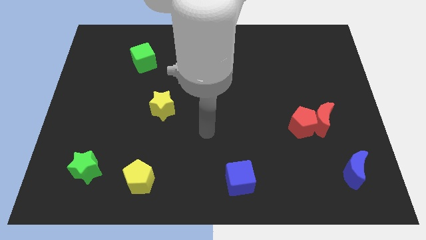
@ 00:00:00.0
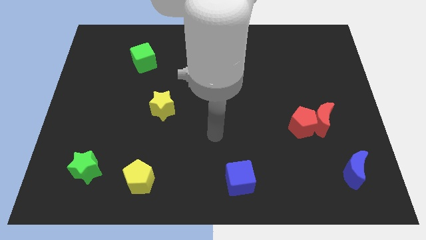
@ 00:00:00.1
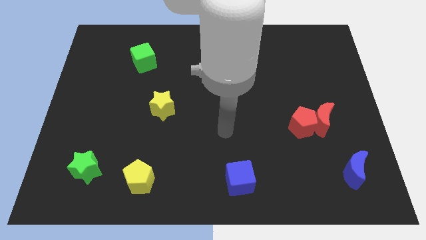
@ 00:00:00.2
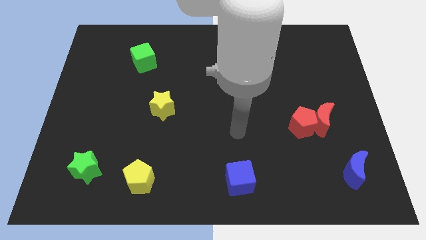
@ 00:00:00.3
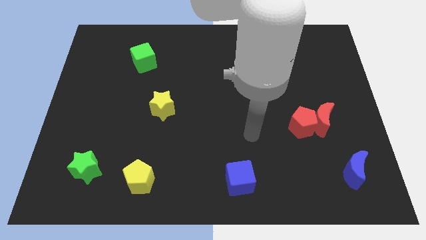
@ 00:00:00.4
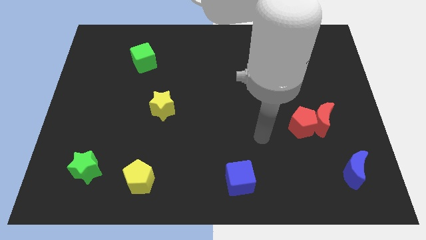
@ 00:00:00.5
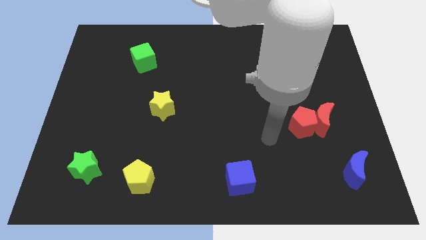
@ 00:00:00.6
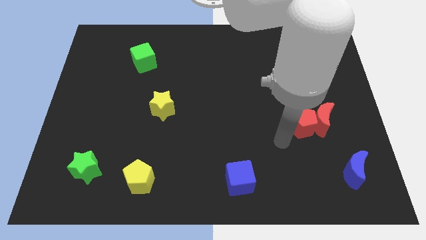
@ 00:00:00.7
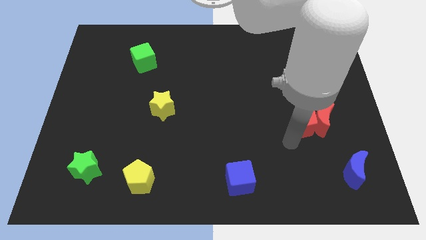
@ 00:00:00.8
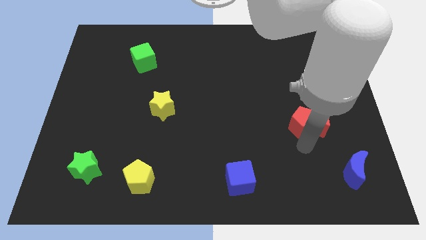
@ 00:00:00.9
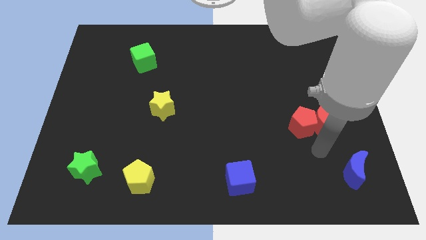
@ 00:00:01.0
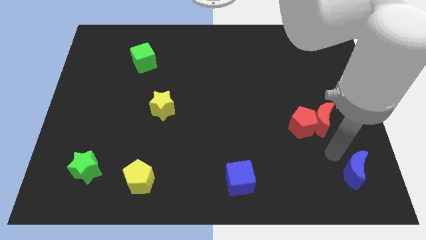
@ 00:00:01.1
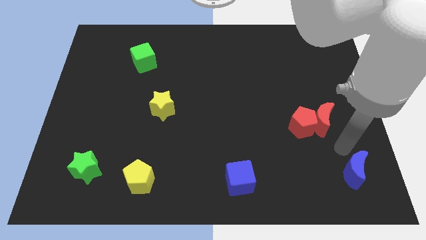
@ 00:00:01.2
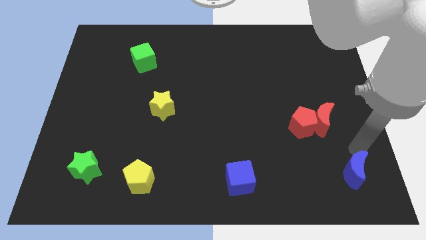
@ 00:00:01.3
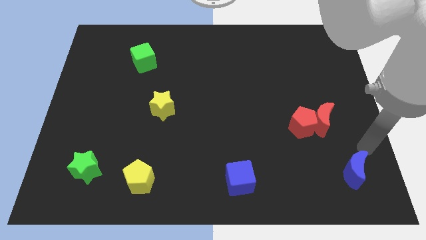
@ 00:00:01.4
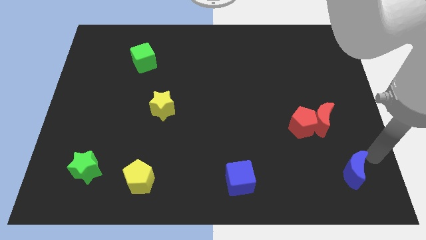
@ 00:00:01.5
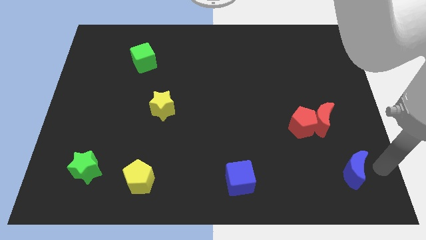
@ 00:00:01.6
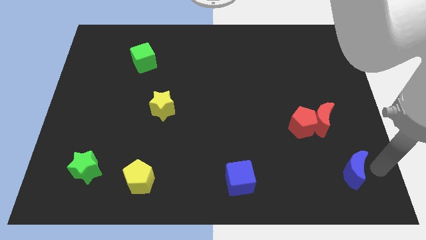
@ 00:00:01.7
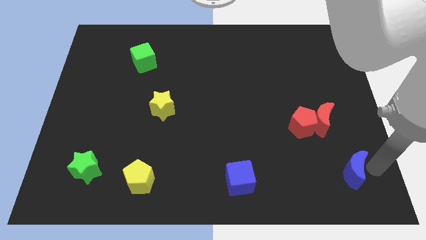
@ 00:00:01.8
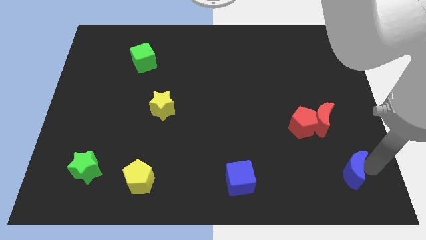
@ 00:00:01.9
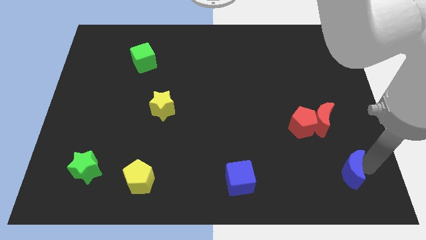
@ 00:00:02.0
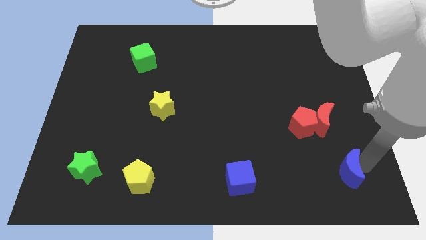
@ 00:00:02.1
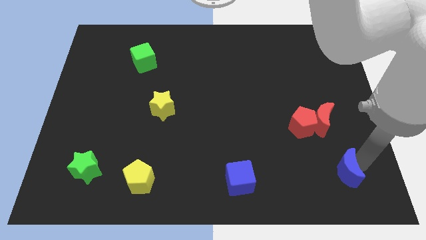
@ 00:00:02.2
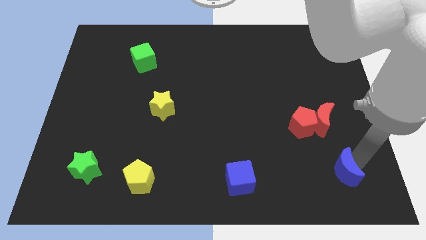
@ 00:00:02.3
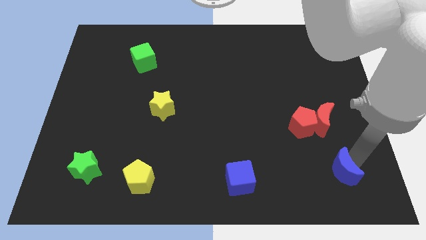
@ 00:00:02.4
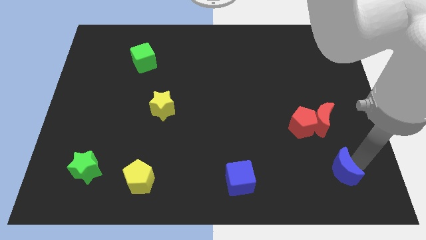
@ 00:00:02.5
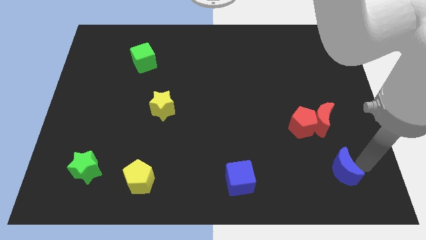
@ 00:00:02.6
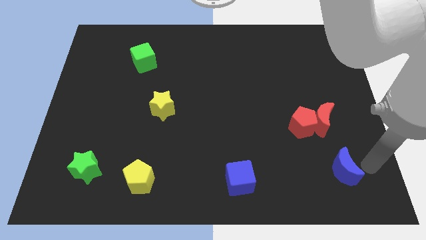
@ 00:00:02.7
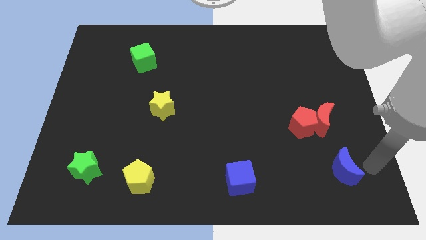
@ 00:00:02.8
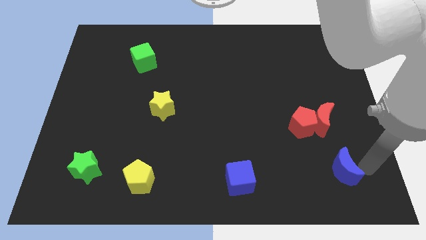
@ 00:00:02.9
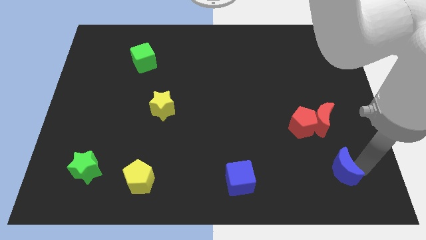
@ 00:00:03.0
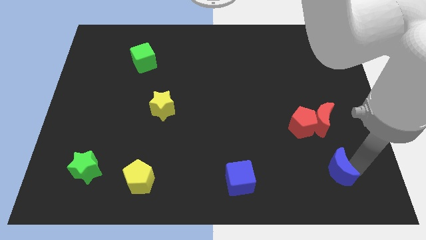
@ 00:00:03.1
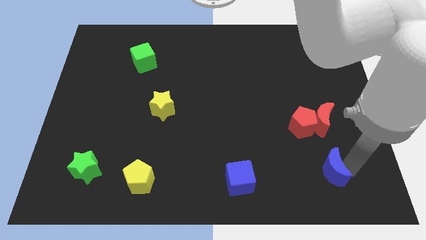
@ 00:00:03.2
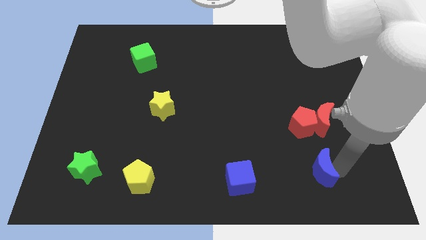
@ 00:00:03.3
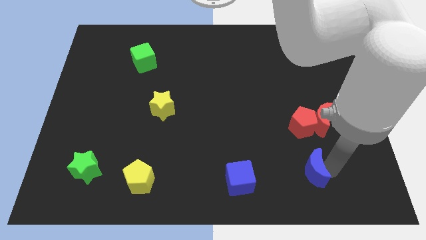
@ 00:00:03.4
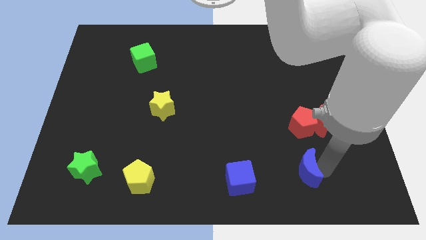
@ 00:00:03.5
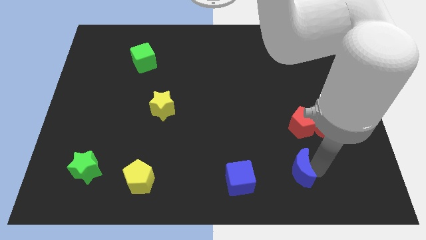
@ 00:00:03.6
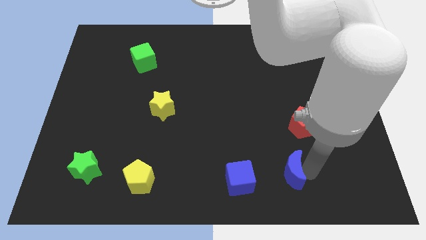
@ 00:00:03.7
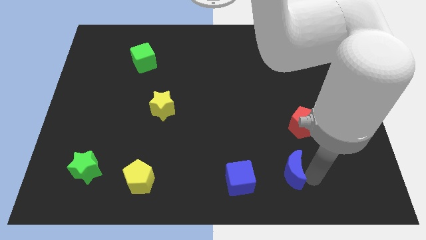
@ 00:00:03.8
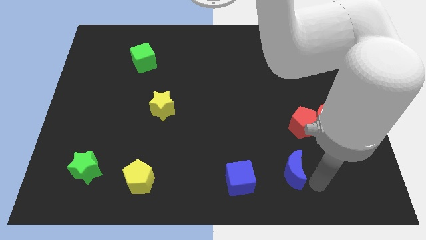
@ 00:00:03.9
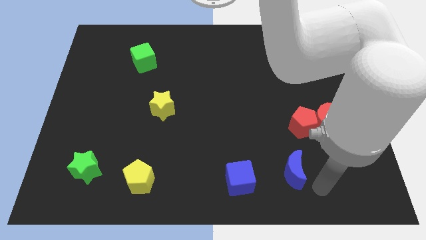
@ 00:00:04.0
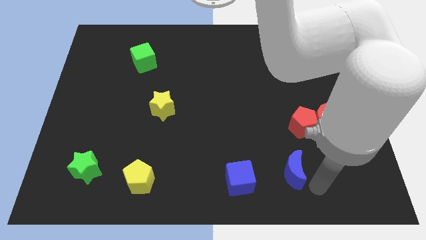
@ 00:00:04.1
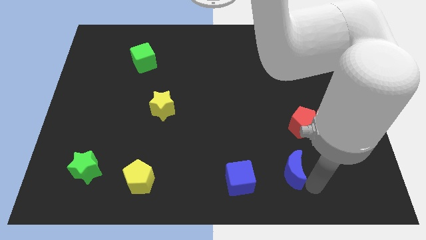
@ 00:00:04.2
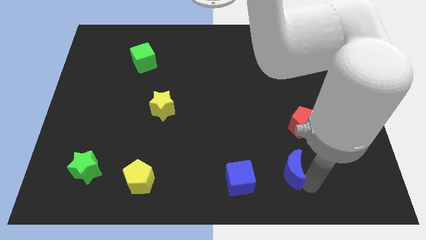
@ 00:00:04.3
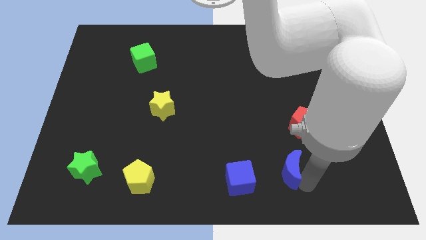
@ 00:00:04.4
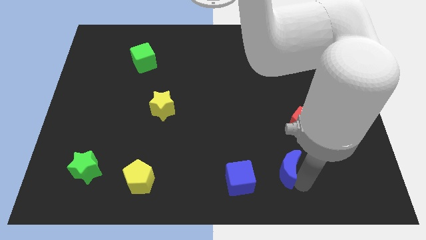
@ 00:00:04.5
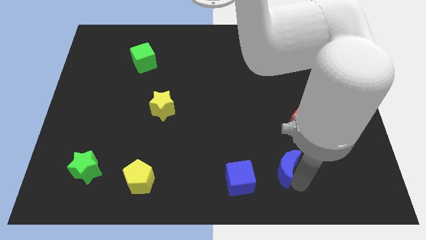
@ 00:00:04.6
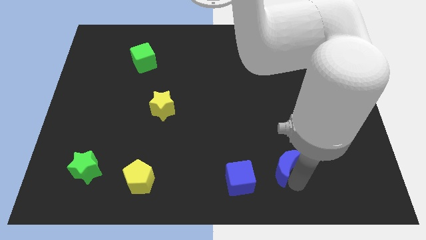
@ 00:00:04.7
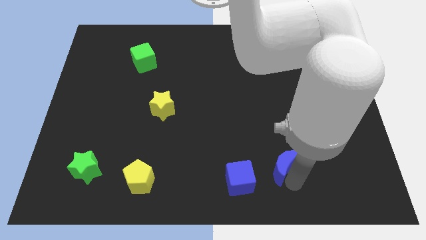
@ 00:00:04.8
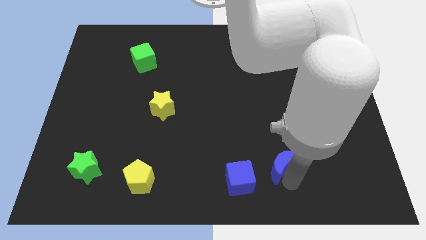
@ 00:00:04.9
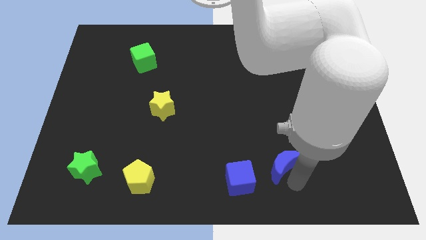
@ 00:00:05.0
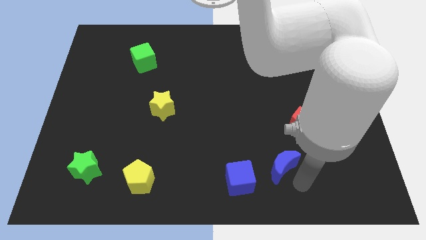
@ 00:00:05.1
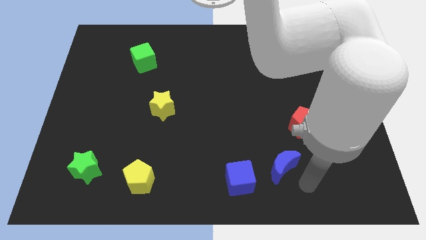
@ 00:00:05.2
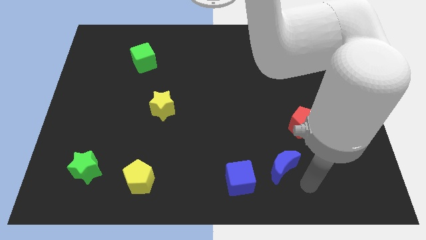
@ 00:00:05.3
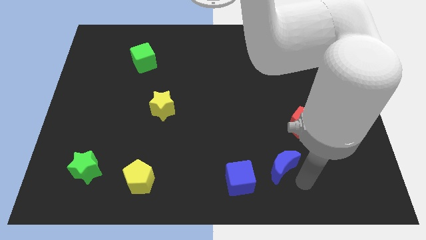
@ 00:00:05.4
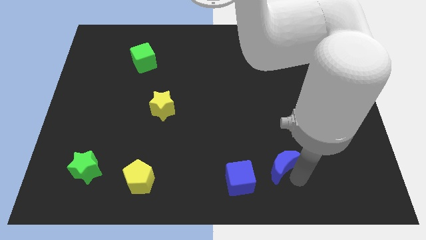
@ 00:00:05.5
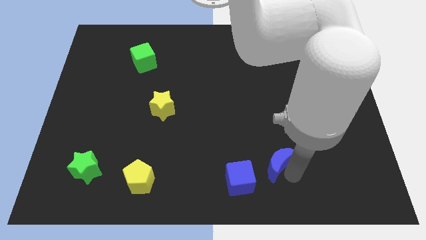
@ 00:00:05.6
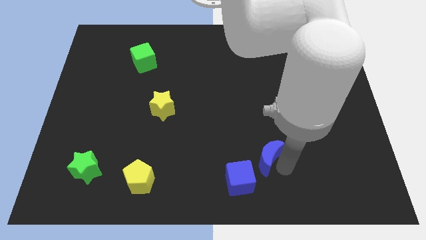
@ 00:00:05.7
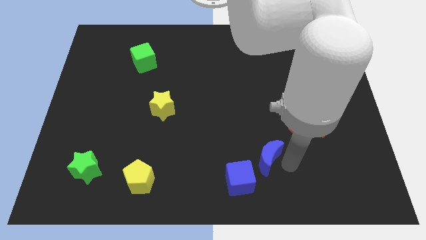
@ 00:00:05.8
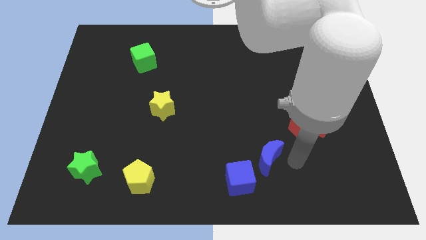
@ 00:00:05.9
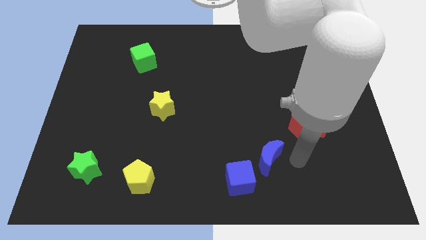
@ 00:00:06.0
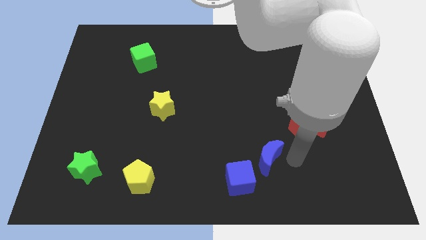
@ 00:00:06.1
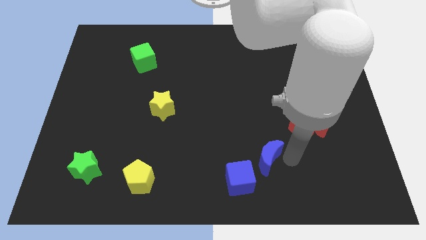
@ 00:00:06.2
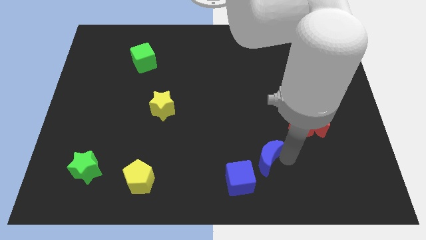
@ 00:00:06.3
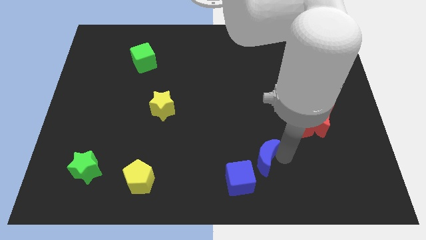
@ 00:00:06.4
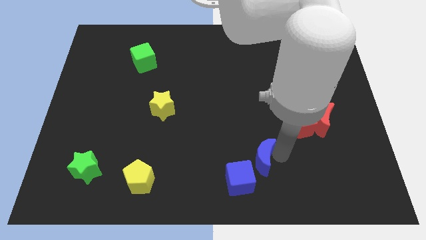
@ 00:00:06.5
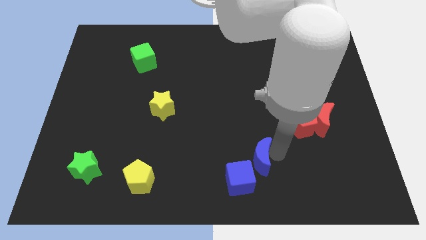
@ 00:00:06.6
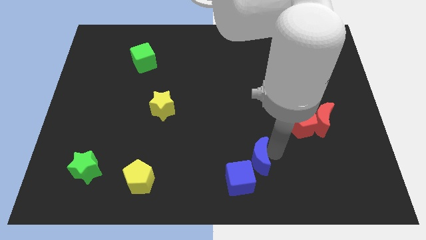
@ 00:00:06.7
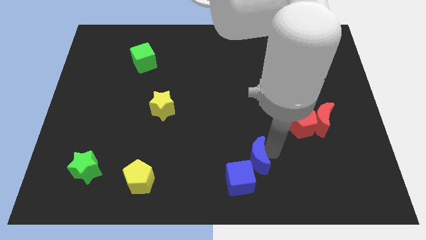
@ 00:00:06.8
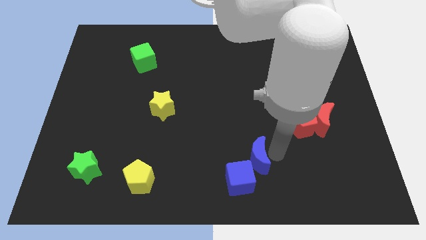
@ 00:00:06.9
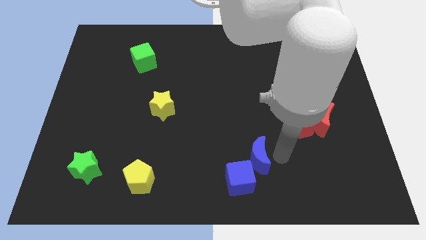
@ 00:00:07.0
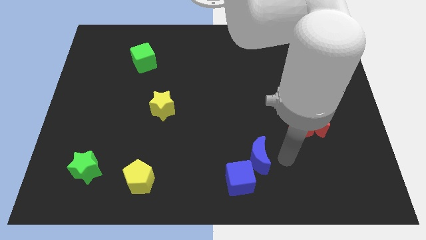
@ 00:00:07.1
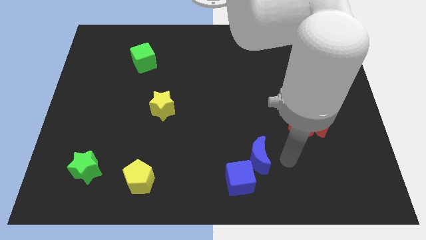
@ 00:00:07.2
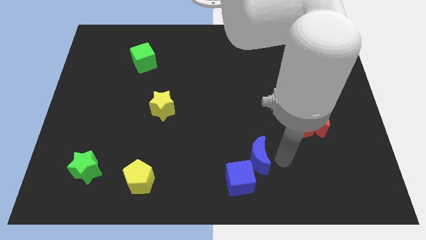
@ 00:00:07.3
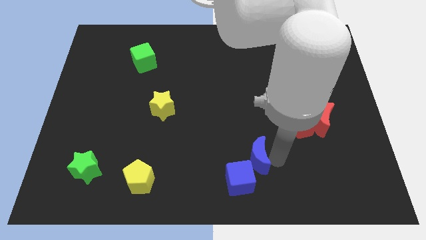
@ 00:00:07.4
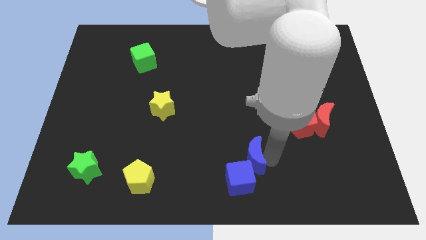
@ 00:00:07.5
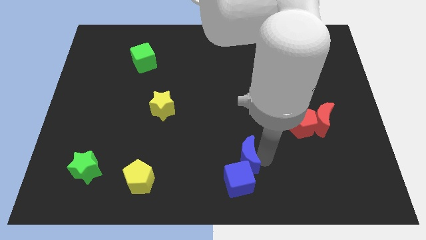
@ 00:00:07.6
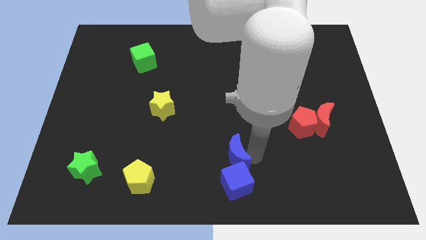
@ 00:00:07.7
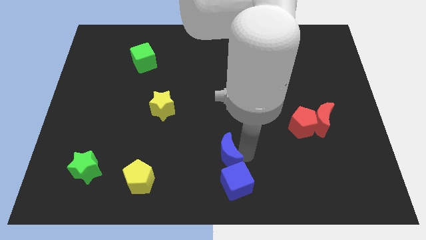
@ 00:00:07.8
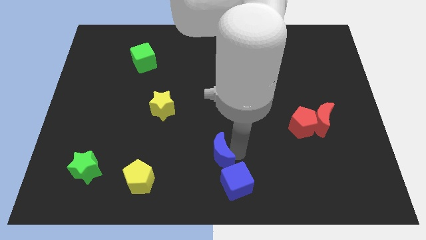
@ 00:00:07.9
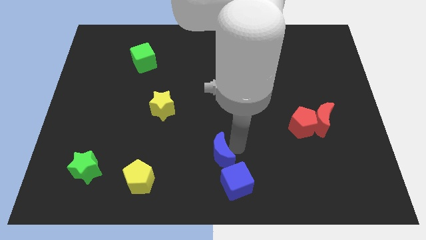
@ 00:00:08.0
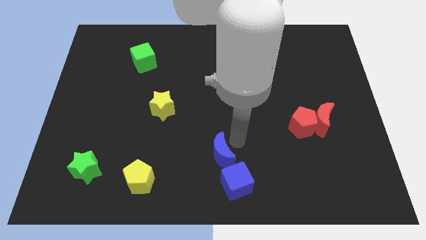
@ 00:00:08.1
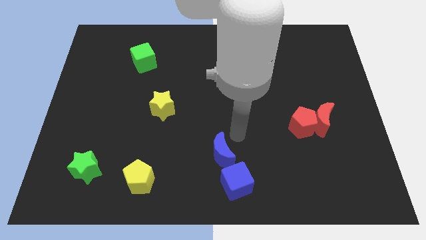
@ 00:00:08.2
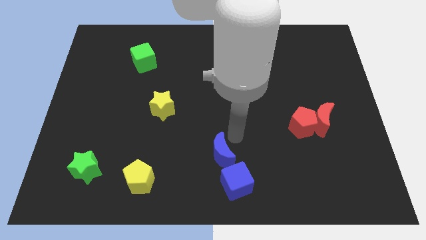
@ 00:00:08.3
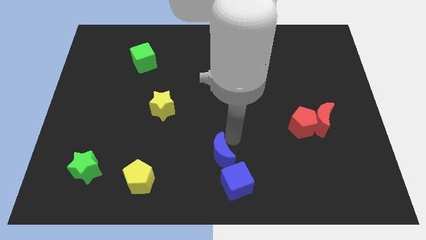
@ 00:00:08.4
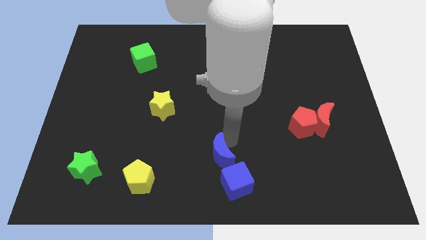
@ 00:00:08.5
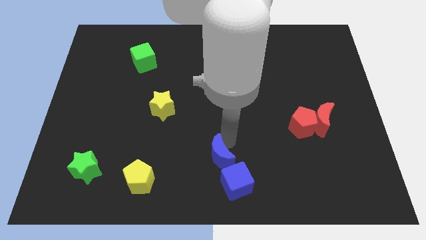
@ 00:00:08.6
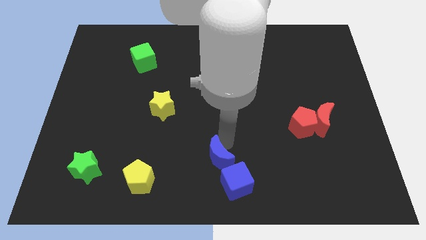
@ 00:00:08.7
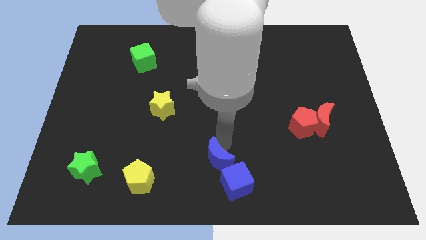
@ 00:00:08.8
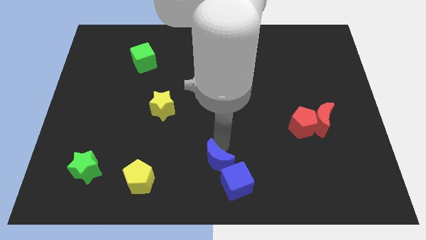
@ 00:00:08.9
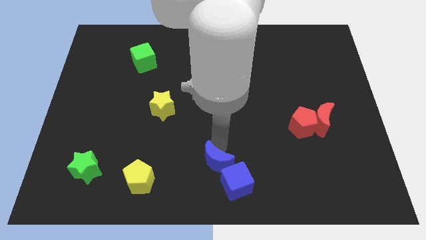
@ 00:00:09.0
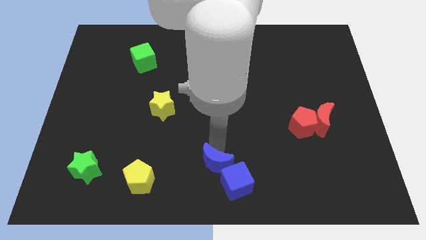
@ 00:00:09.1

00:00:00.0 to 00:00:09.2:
push the blue moon just left of the blue cube
